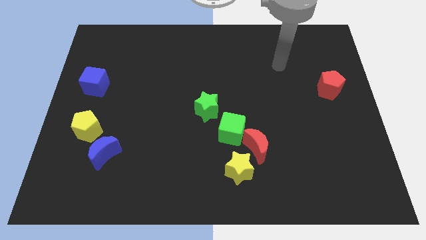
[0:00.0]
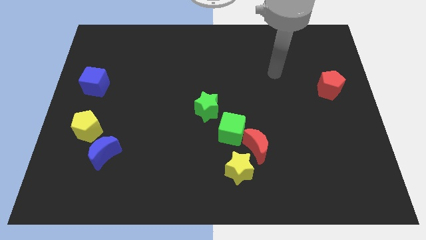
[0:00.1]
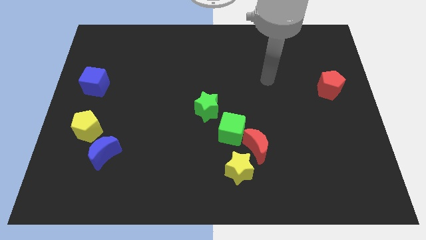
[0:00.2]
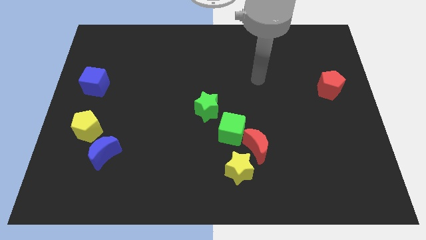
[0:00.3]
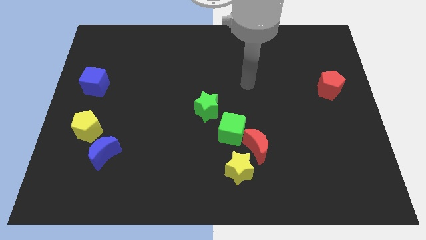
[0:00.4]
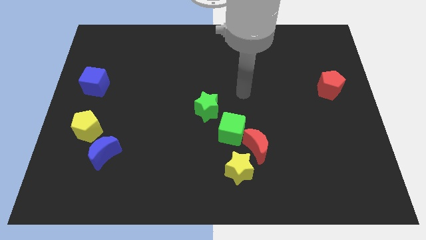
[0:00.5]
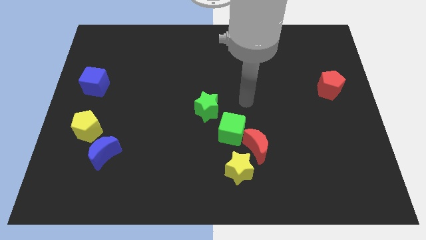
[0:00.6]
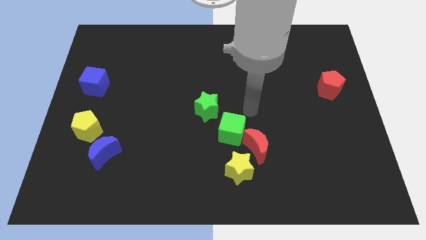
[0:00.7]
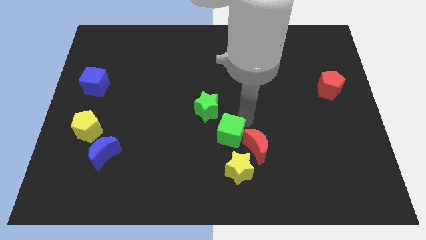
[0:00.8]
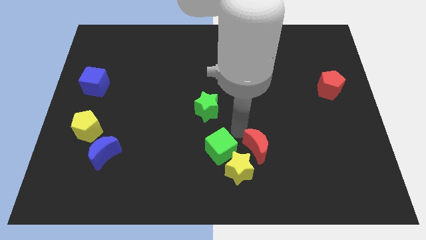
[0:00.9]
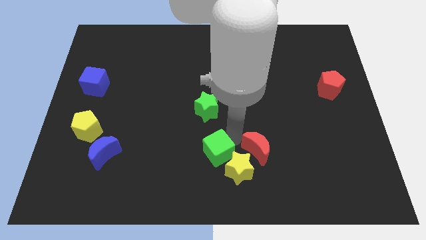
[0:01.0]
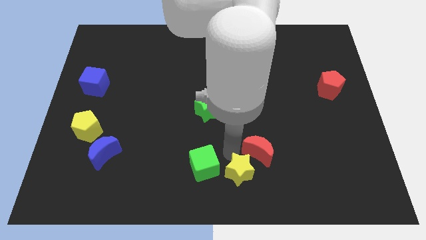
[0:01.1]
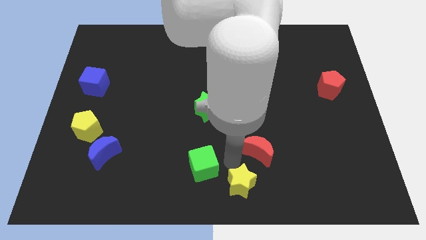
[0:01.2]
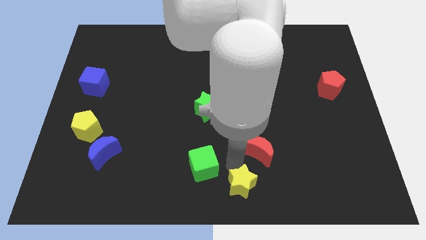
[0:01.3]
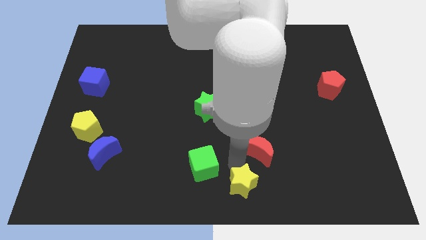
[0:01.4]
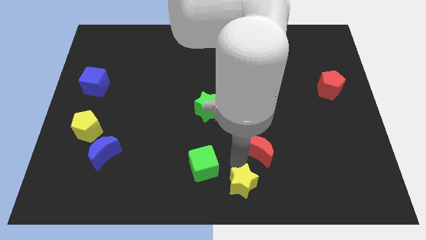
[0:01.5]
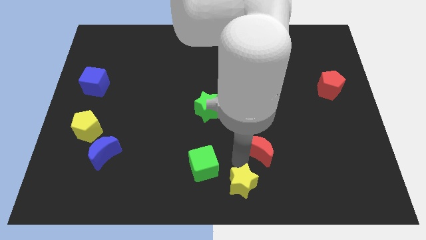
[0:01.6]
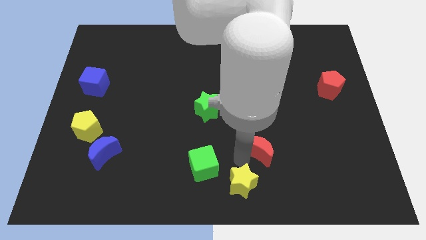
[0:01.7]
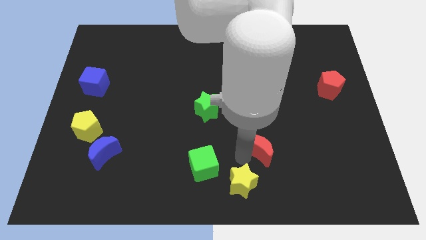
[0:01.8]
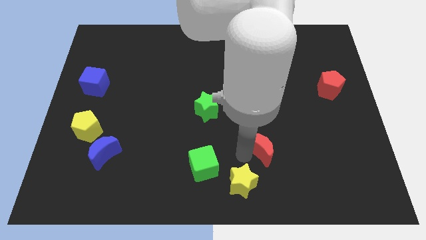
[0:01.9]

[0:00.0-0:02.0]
separate the red moon from the green cube and yellow star

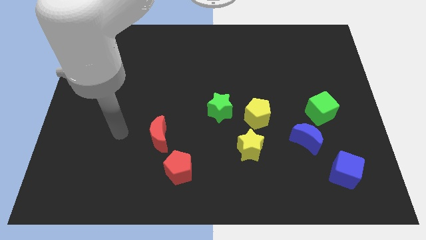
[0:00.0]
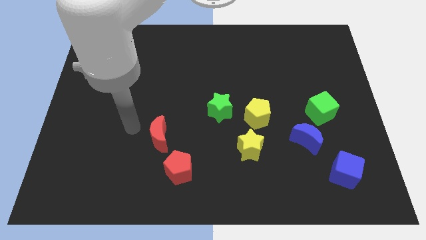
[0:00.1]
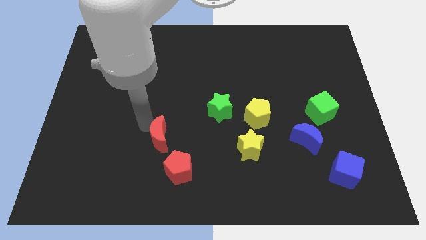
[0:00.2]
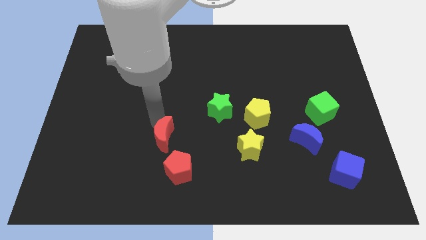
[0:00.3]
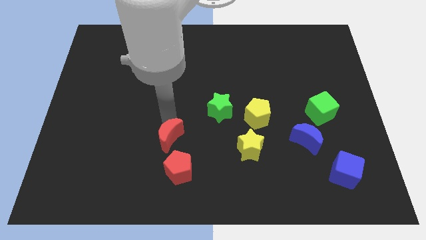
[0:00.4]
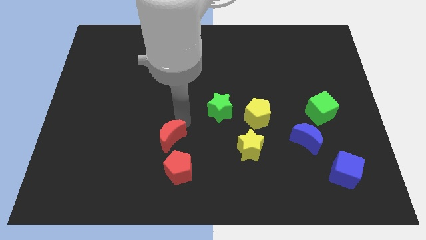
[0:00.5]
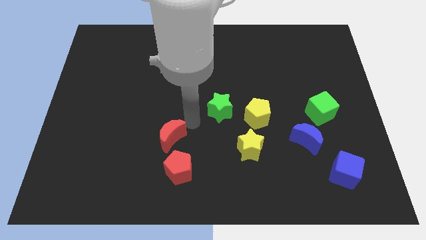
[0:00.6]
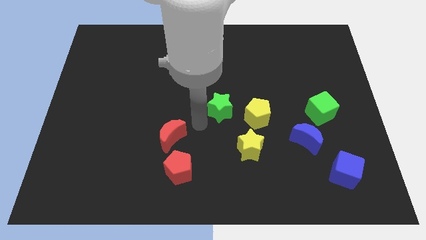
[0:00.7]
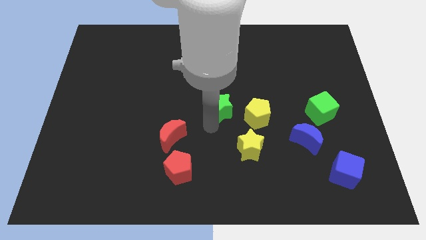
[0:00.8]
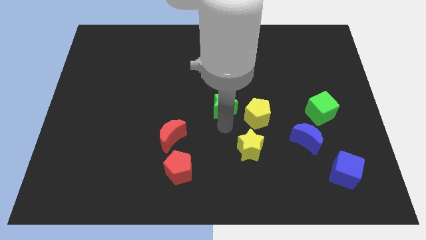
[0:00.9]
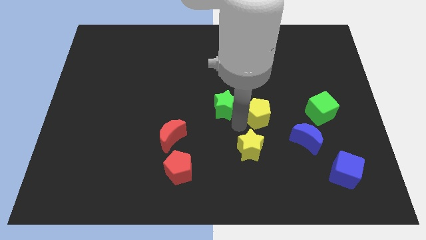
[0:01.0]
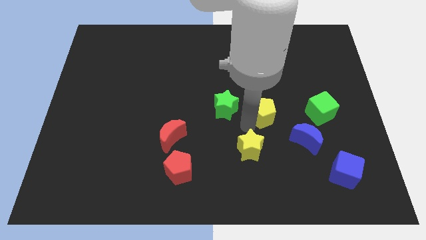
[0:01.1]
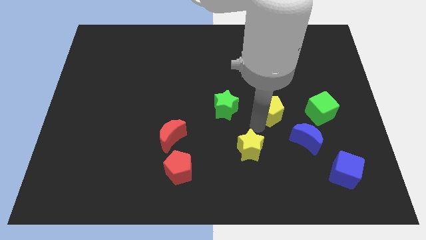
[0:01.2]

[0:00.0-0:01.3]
move the yellow star away from the yellow pentagon

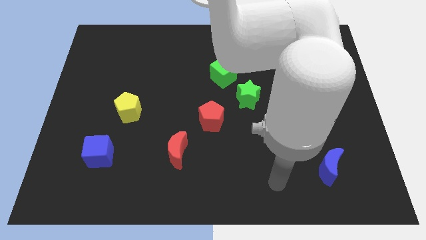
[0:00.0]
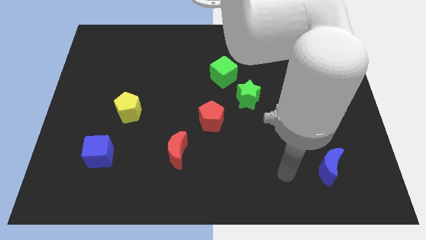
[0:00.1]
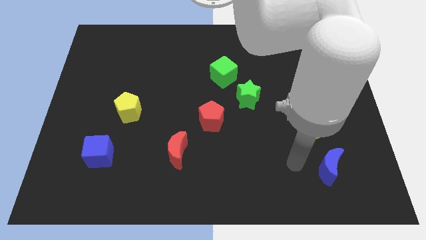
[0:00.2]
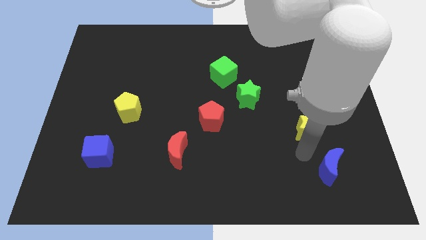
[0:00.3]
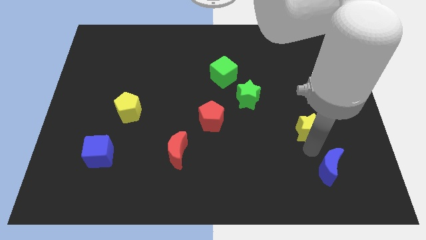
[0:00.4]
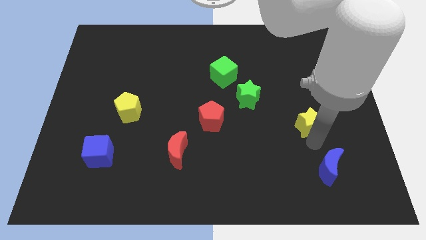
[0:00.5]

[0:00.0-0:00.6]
separate the blue moon from the yellow star

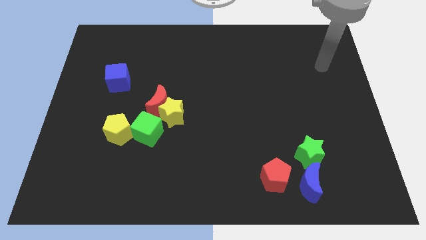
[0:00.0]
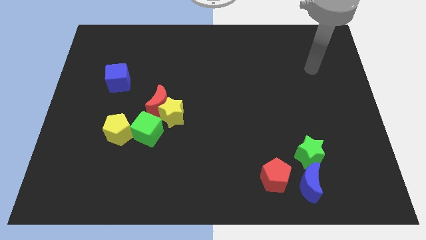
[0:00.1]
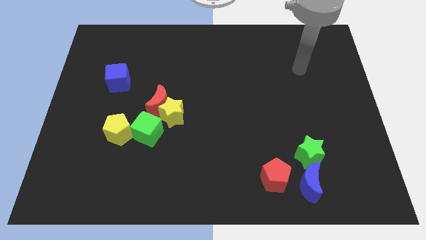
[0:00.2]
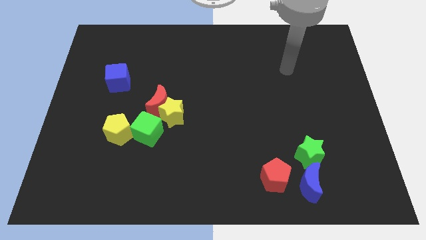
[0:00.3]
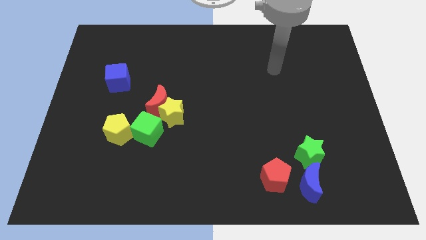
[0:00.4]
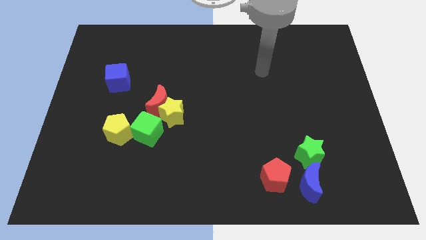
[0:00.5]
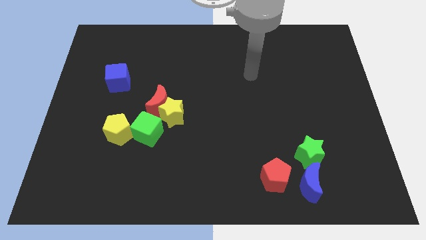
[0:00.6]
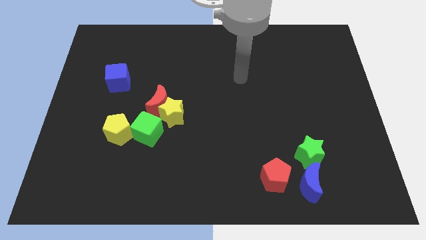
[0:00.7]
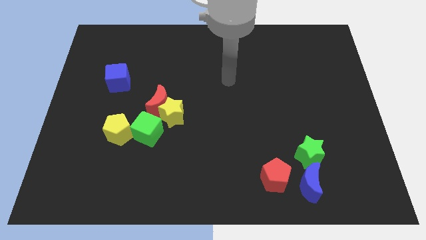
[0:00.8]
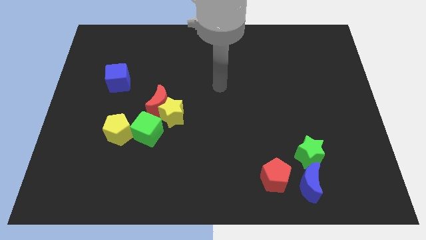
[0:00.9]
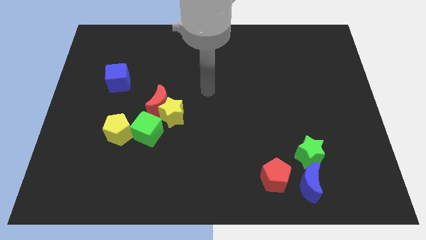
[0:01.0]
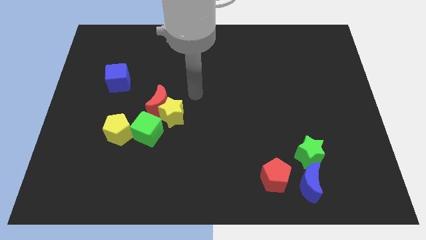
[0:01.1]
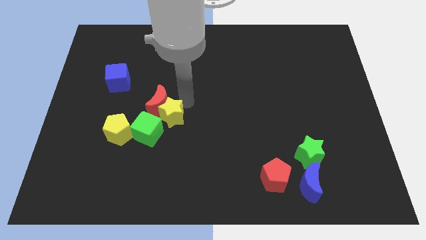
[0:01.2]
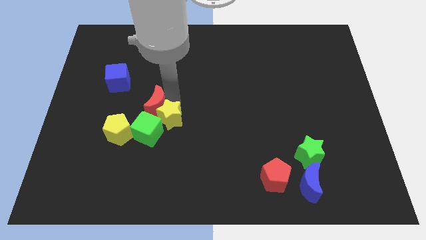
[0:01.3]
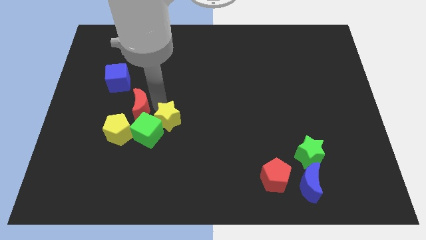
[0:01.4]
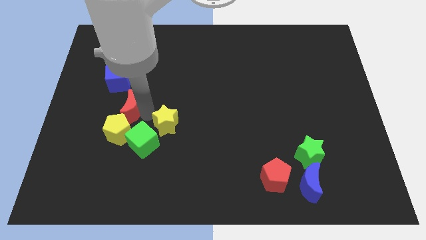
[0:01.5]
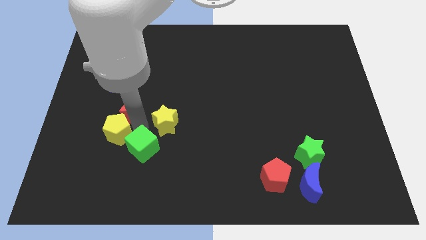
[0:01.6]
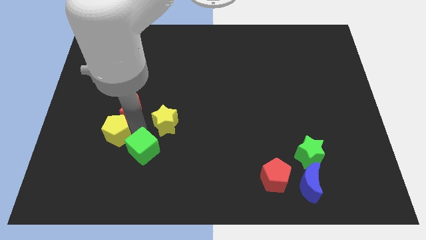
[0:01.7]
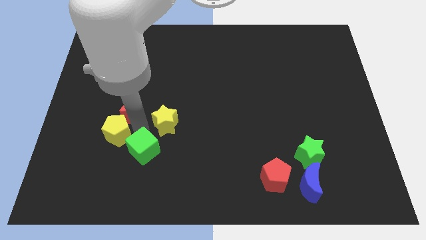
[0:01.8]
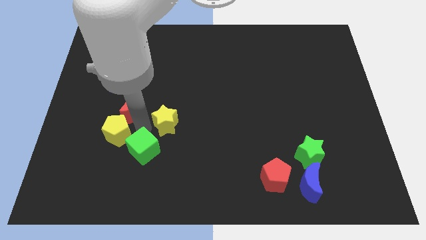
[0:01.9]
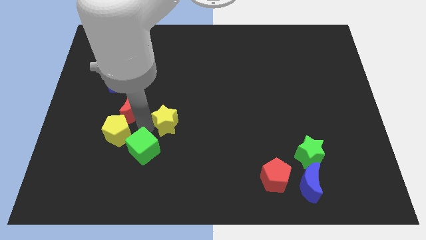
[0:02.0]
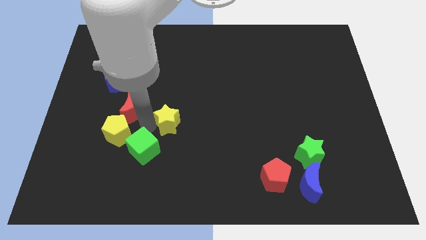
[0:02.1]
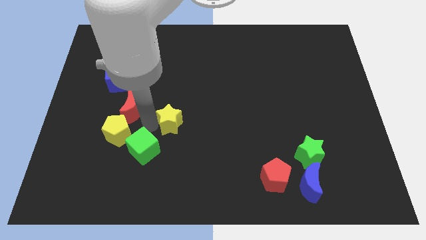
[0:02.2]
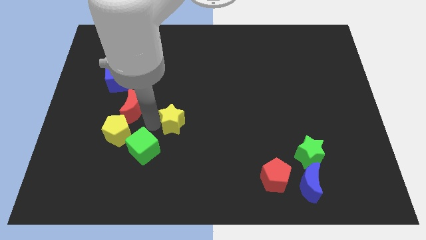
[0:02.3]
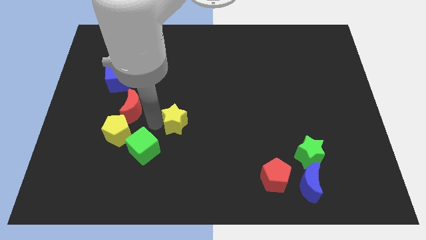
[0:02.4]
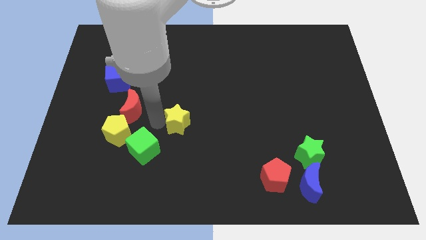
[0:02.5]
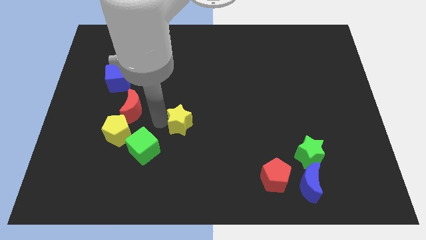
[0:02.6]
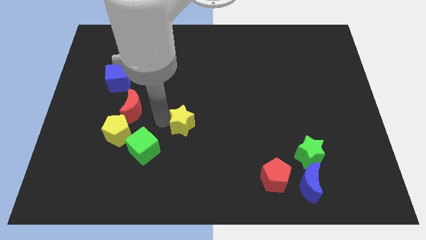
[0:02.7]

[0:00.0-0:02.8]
move the yellow star away from the red moon and green cube

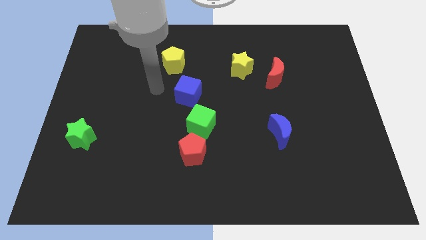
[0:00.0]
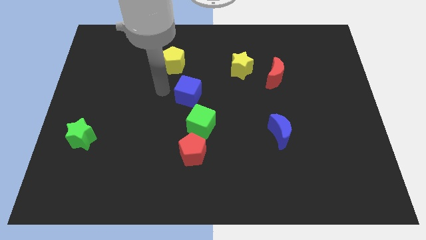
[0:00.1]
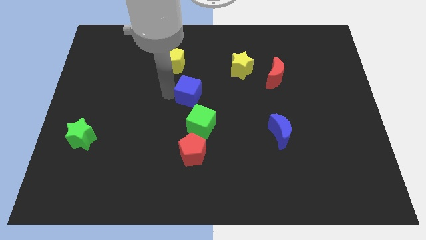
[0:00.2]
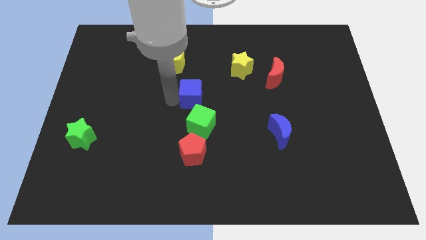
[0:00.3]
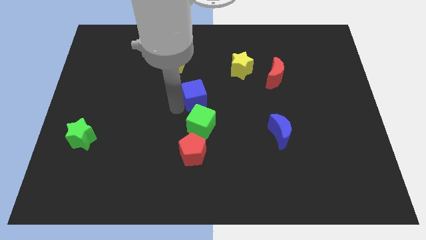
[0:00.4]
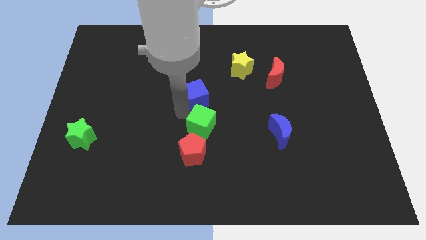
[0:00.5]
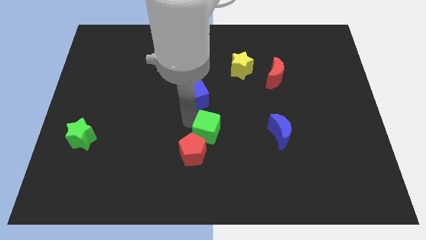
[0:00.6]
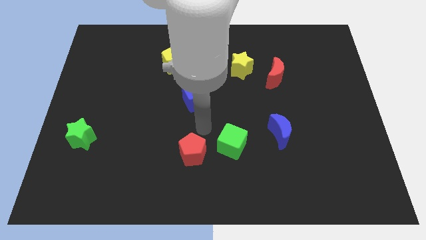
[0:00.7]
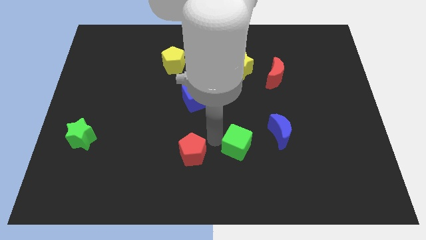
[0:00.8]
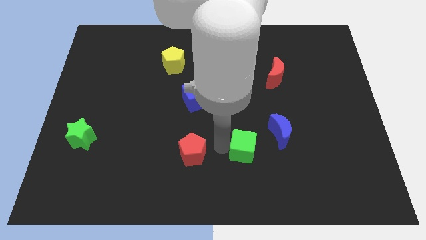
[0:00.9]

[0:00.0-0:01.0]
move the red pentagon away from the green cube

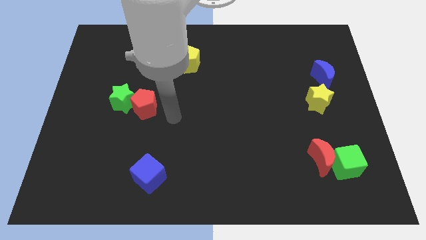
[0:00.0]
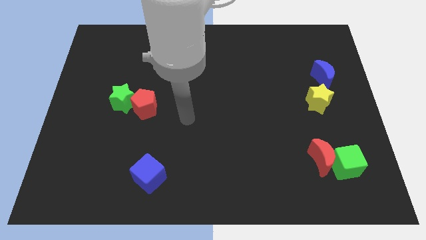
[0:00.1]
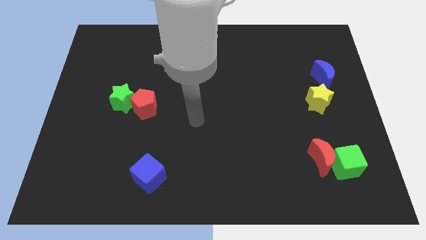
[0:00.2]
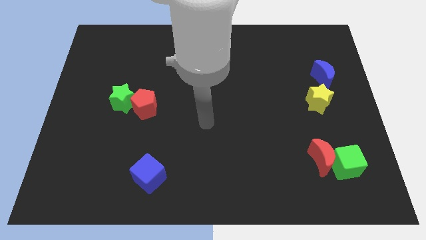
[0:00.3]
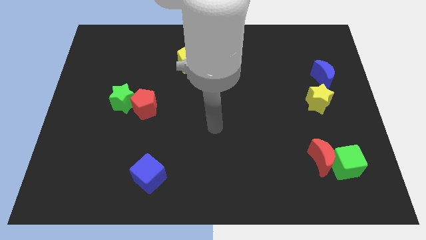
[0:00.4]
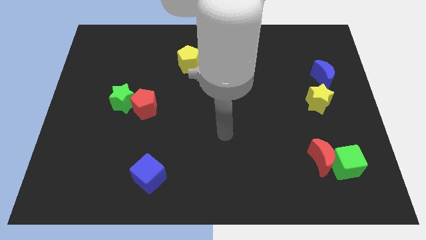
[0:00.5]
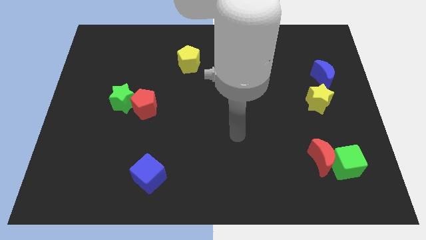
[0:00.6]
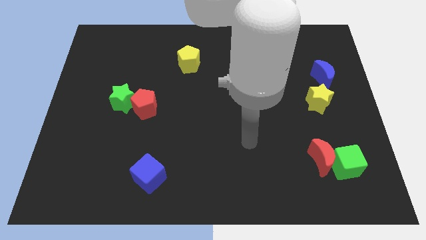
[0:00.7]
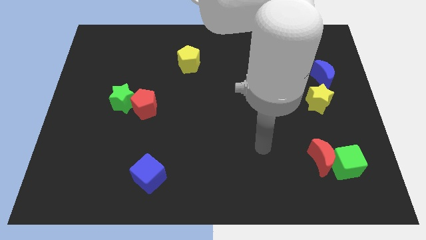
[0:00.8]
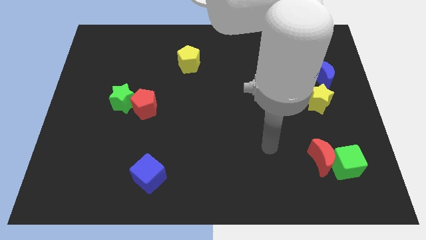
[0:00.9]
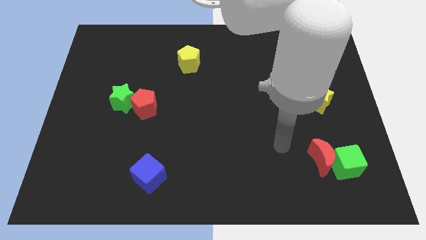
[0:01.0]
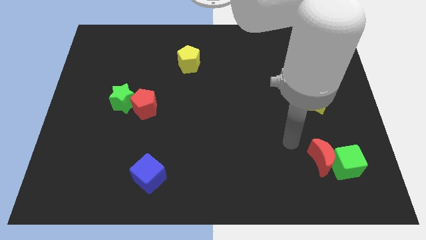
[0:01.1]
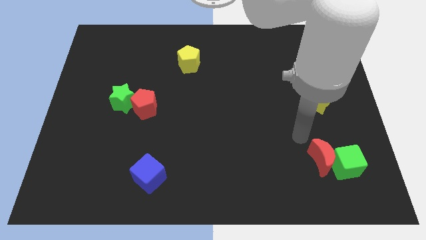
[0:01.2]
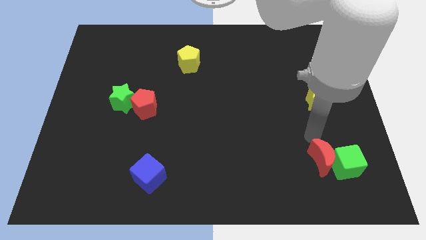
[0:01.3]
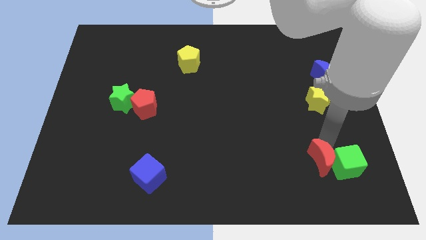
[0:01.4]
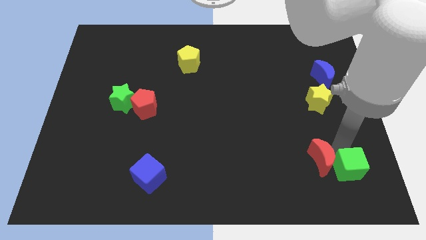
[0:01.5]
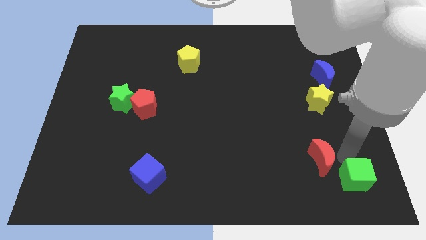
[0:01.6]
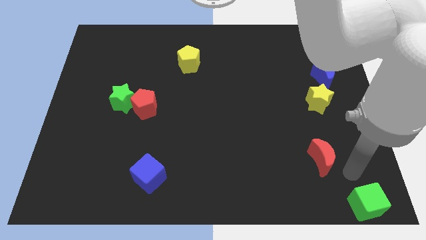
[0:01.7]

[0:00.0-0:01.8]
separate the red moon from the green cube

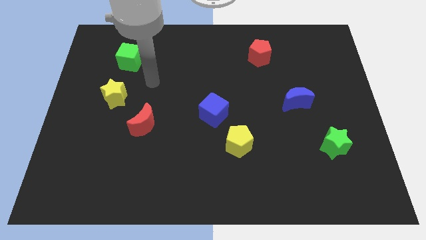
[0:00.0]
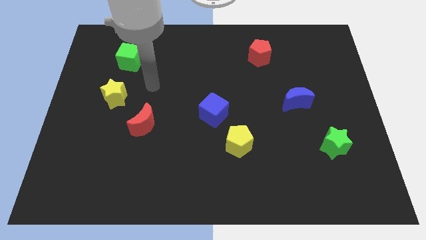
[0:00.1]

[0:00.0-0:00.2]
pull the blue cube apart from the yellow pentagon
